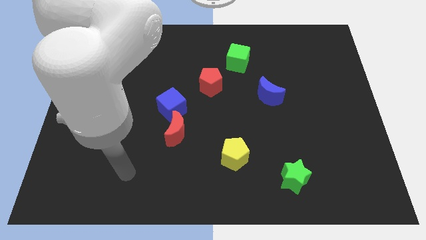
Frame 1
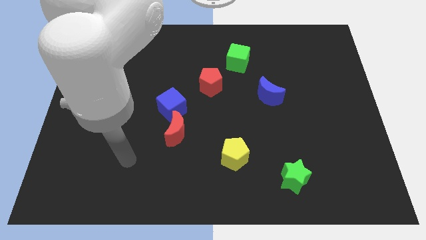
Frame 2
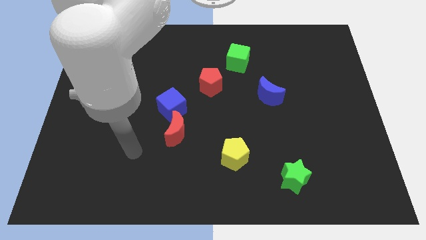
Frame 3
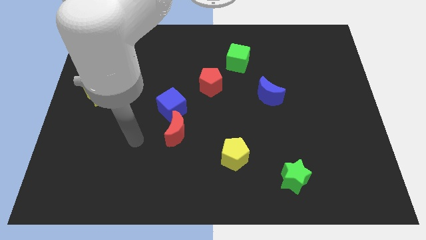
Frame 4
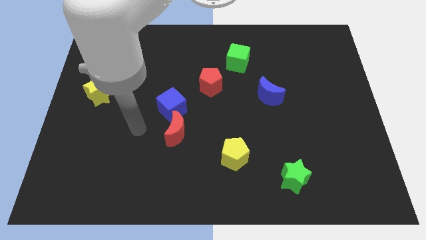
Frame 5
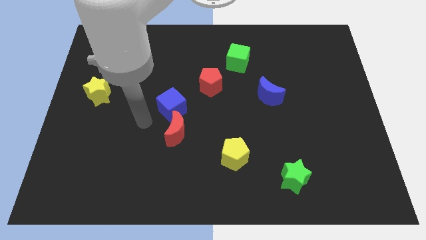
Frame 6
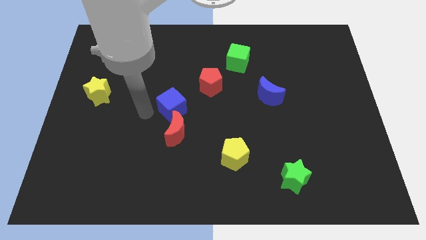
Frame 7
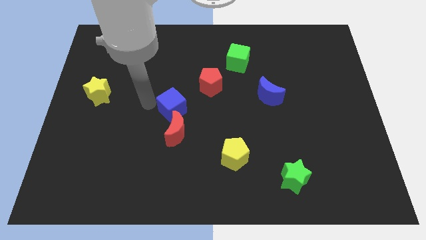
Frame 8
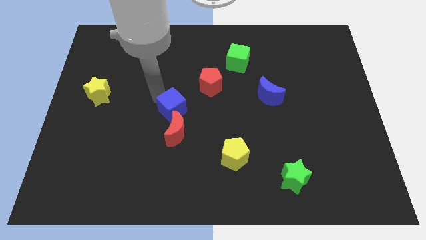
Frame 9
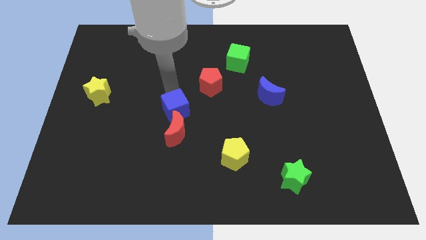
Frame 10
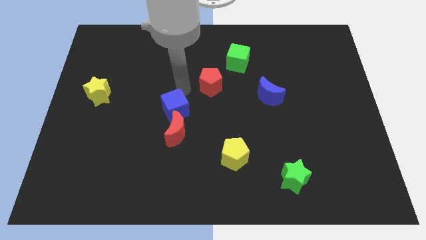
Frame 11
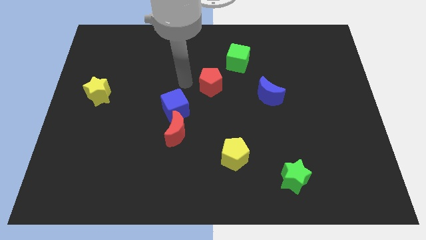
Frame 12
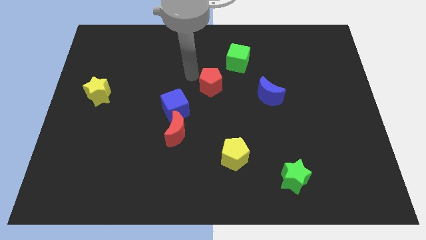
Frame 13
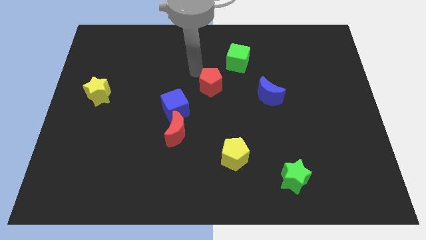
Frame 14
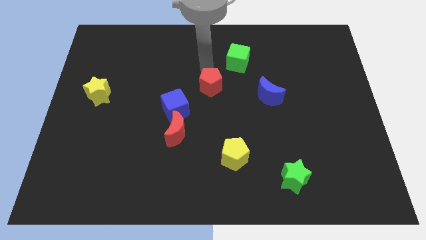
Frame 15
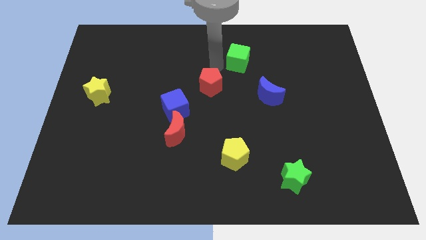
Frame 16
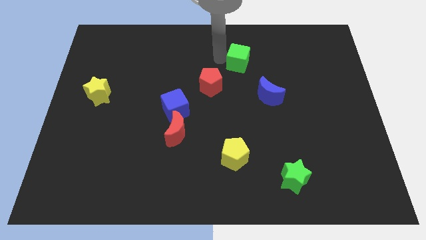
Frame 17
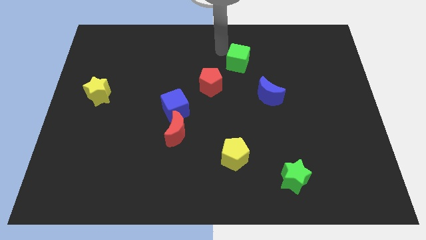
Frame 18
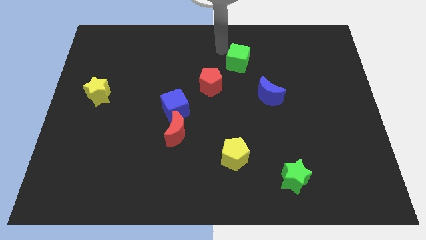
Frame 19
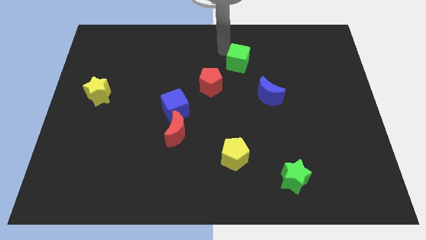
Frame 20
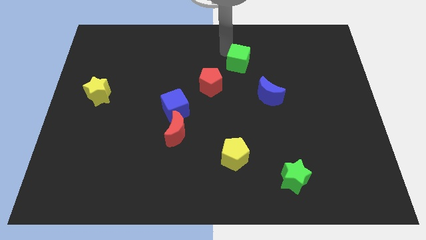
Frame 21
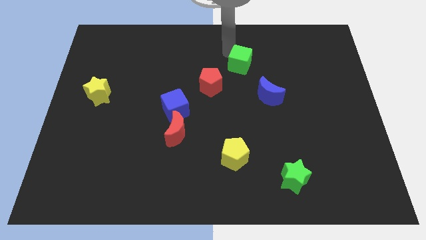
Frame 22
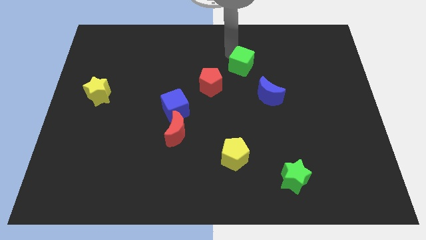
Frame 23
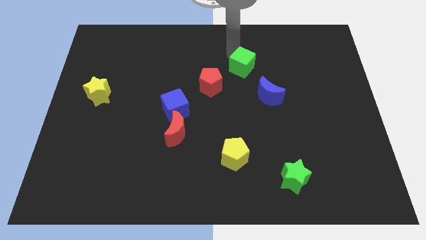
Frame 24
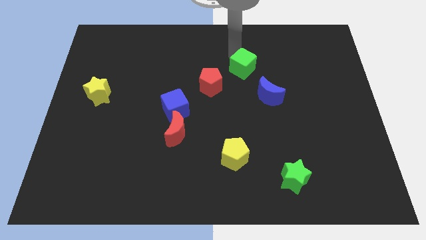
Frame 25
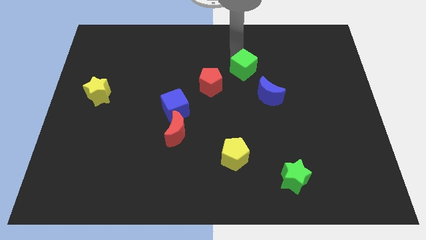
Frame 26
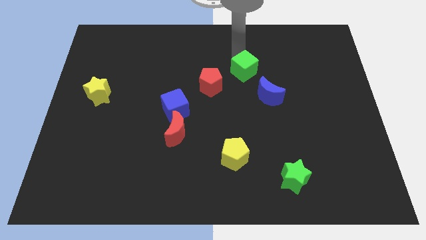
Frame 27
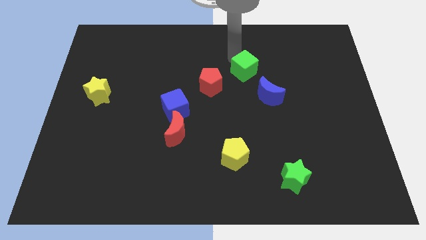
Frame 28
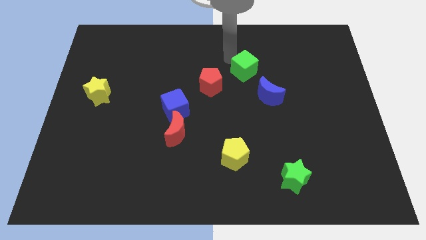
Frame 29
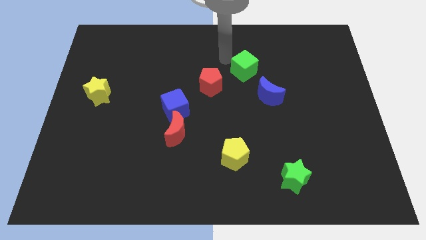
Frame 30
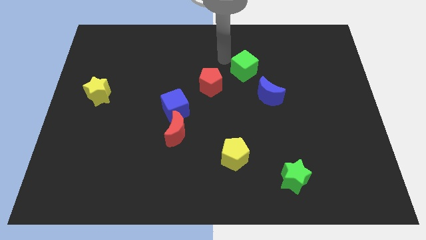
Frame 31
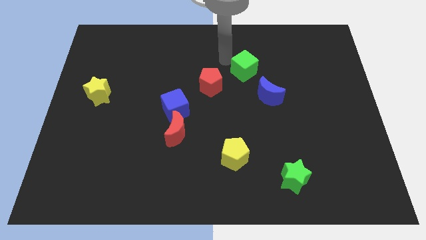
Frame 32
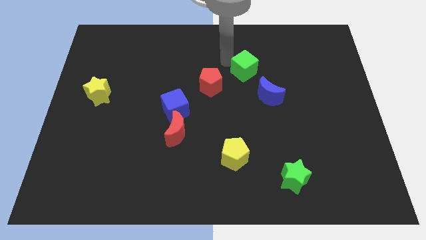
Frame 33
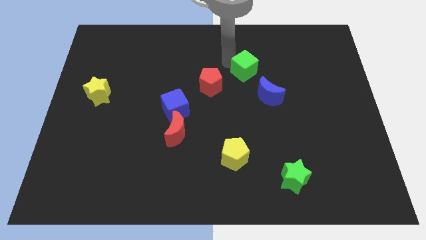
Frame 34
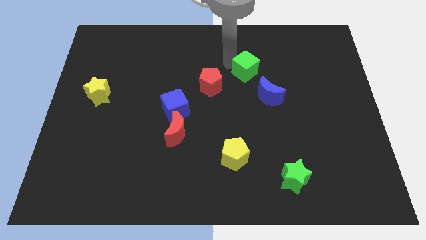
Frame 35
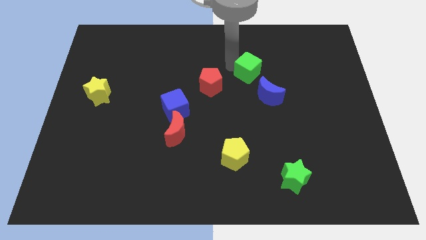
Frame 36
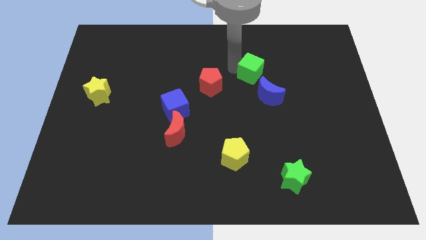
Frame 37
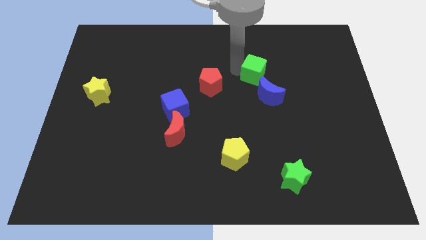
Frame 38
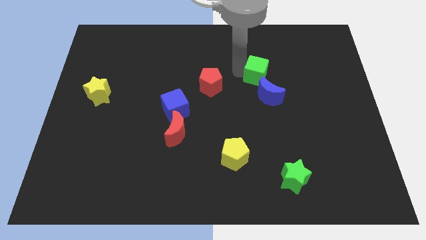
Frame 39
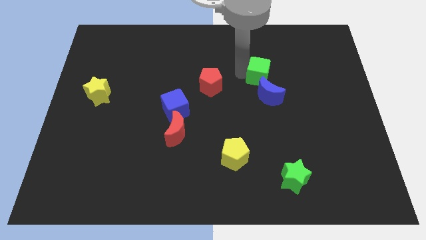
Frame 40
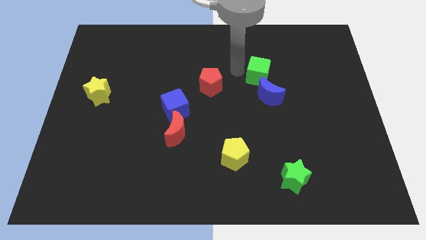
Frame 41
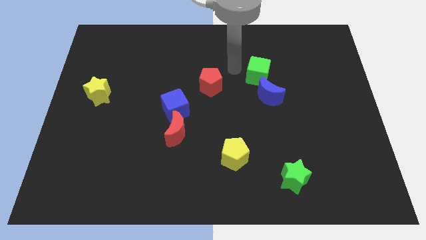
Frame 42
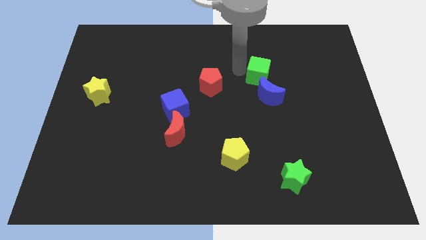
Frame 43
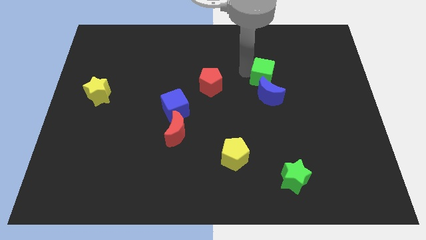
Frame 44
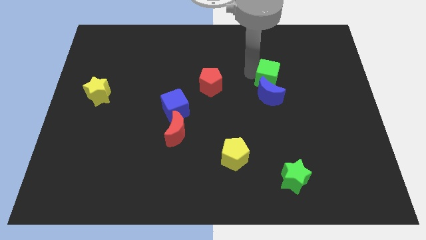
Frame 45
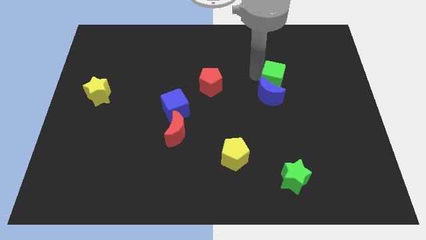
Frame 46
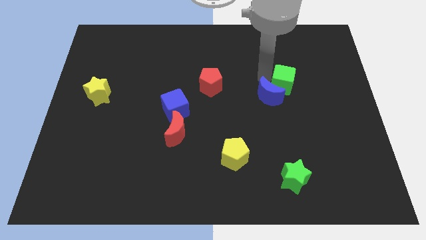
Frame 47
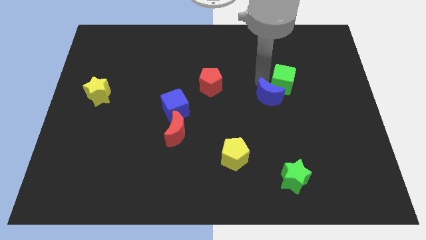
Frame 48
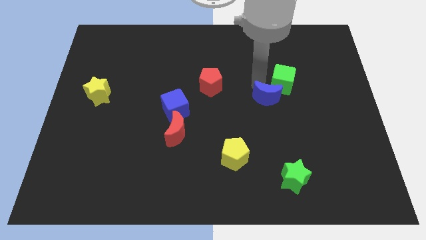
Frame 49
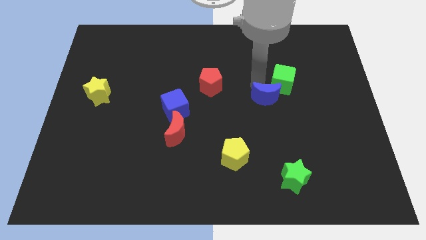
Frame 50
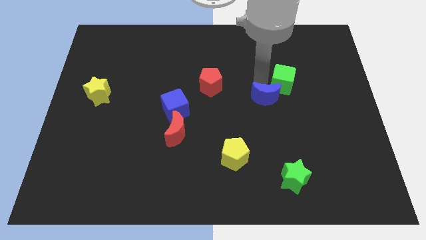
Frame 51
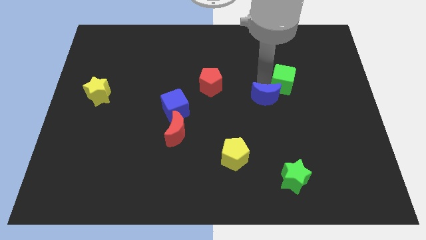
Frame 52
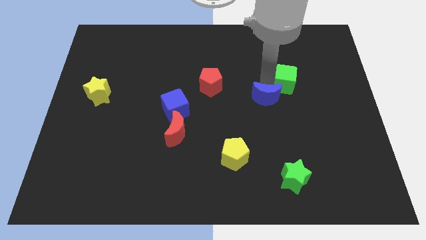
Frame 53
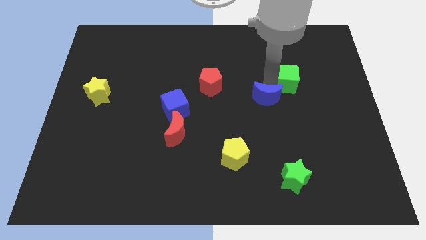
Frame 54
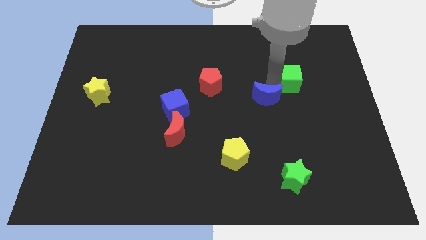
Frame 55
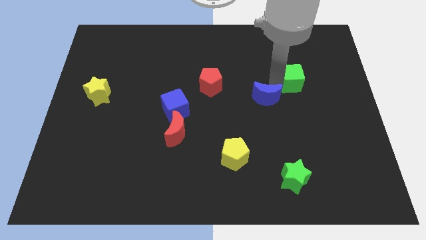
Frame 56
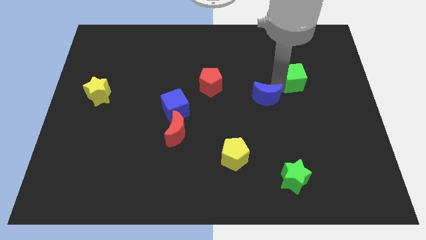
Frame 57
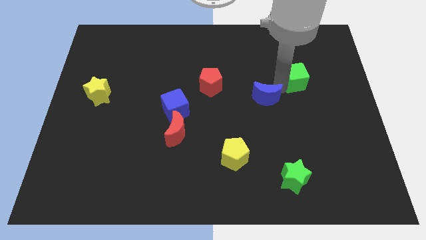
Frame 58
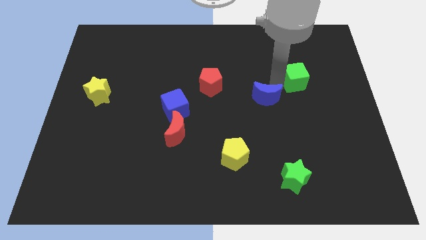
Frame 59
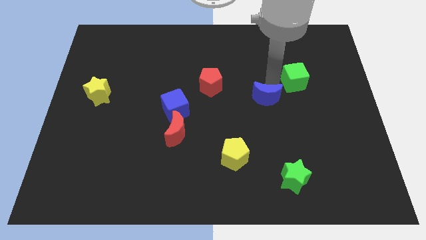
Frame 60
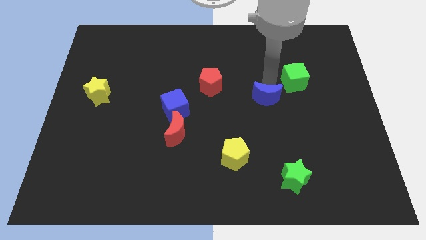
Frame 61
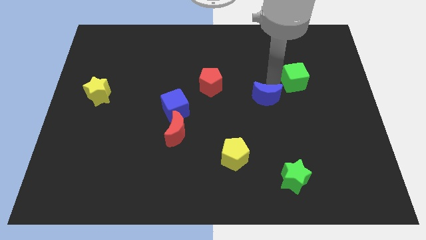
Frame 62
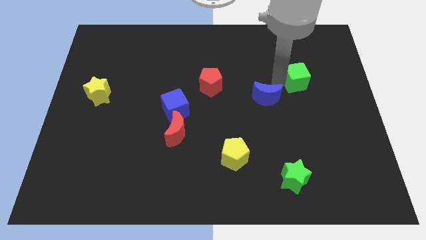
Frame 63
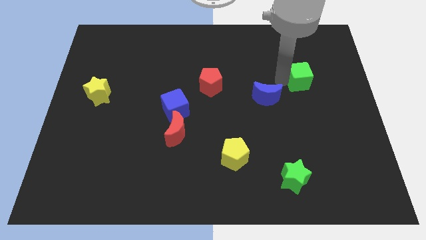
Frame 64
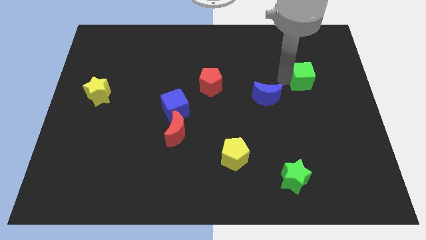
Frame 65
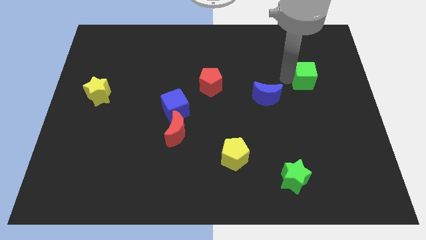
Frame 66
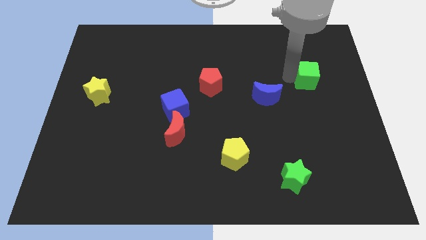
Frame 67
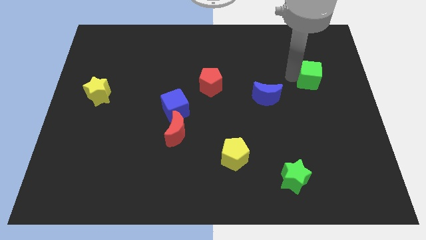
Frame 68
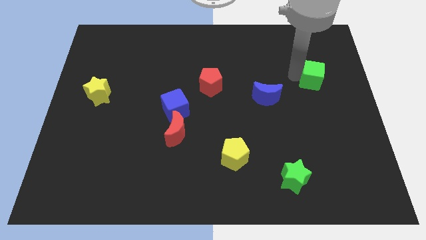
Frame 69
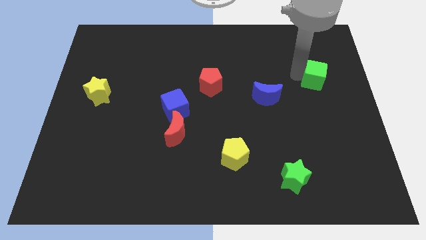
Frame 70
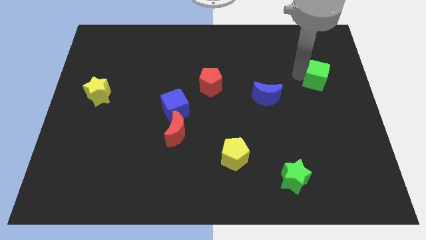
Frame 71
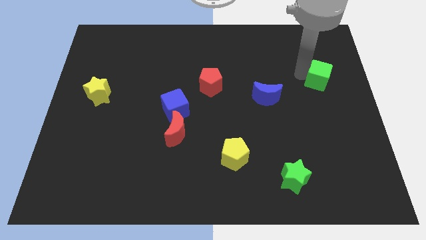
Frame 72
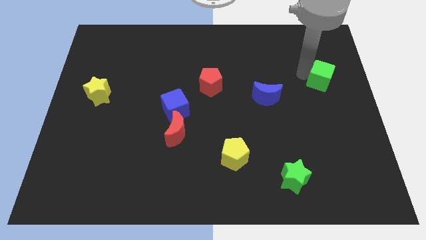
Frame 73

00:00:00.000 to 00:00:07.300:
move the green cube to the right side of the board
